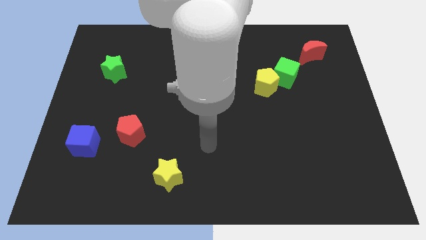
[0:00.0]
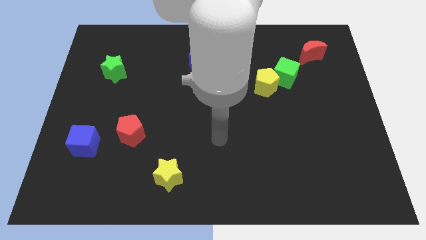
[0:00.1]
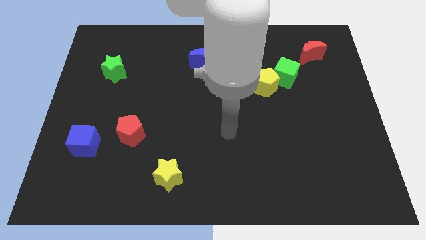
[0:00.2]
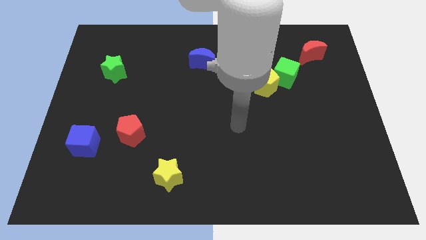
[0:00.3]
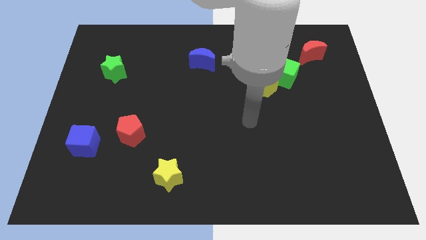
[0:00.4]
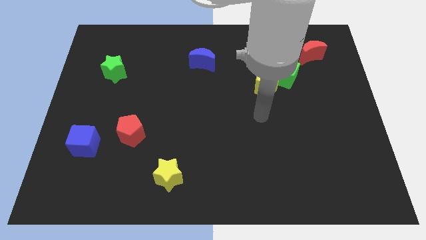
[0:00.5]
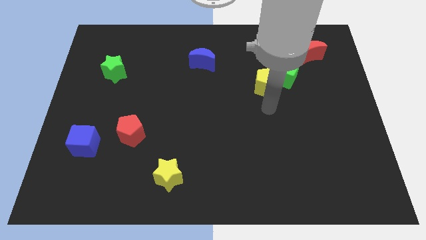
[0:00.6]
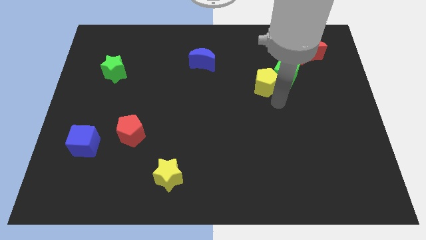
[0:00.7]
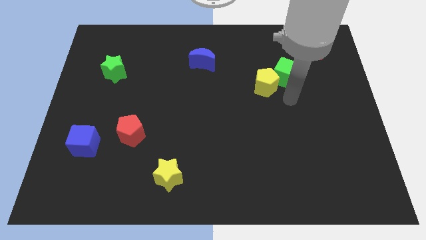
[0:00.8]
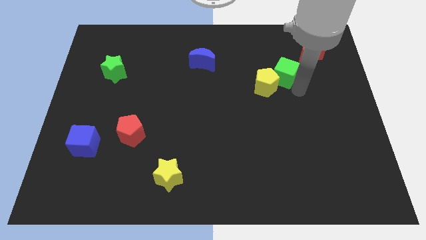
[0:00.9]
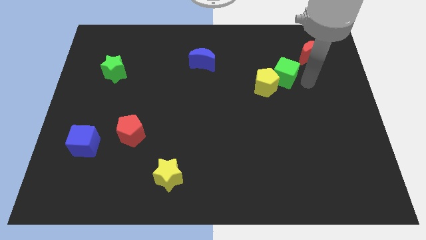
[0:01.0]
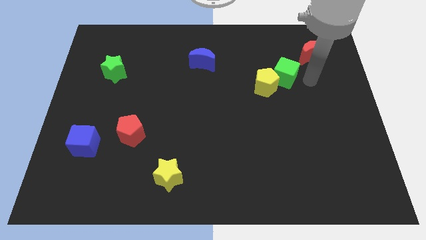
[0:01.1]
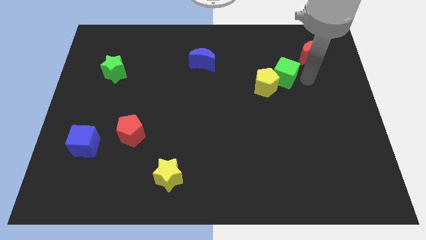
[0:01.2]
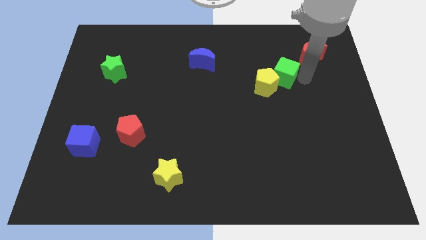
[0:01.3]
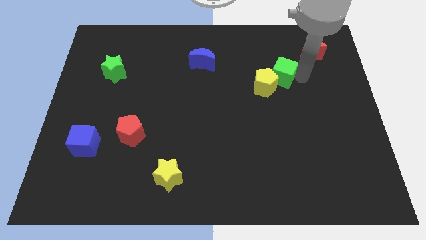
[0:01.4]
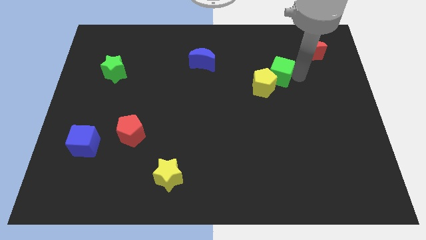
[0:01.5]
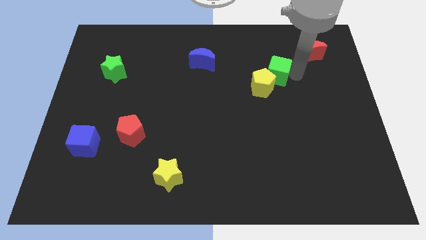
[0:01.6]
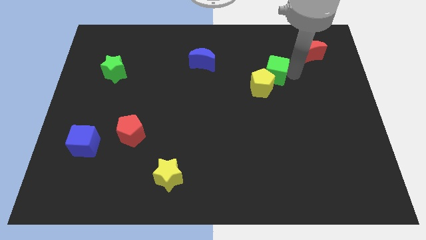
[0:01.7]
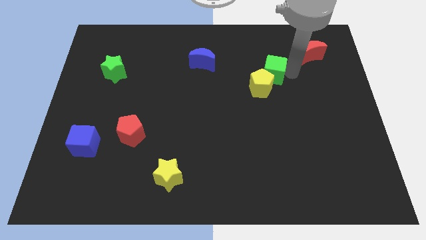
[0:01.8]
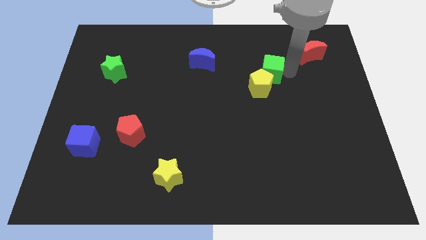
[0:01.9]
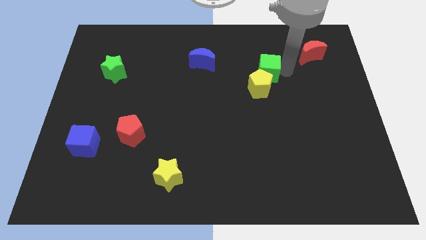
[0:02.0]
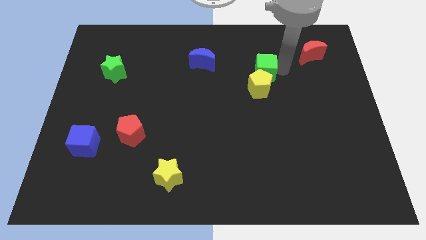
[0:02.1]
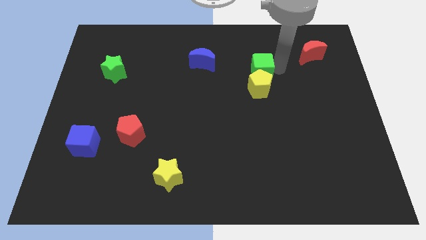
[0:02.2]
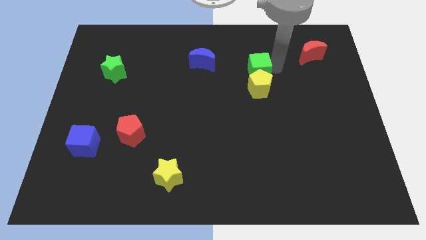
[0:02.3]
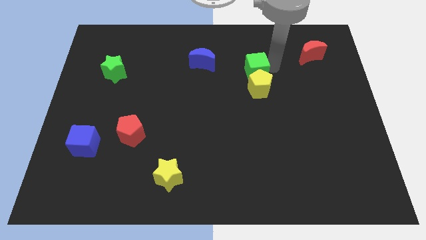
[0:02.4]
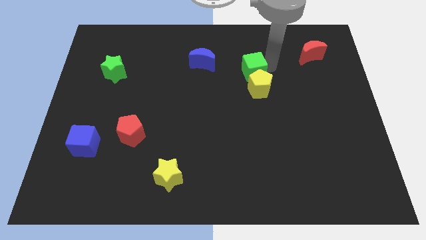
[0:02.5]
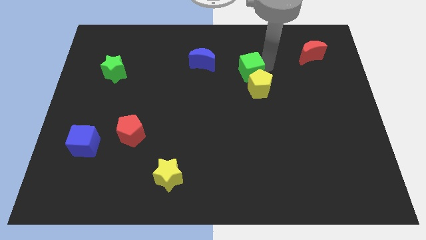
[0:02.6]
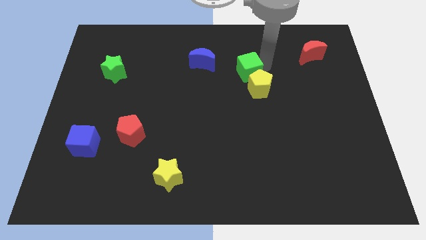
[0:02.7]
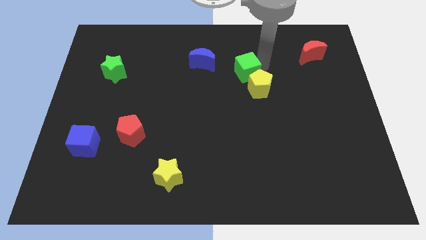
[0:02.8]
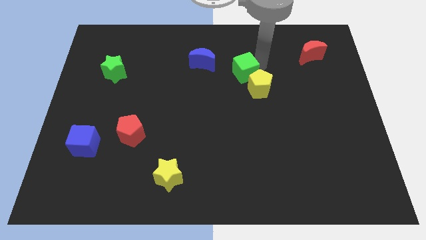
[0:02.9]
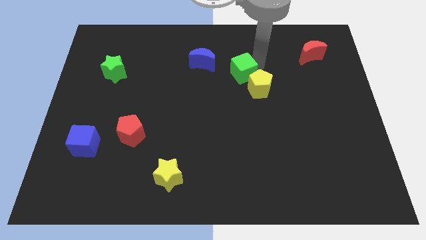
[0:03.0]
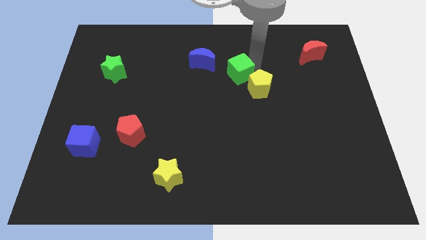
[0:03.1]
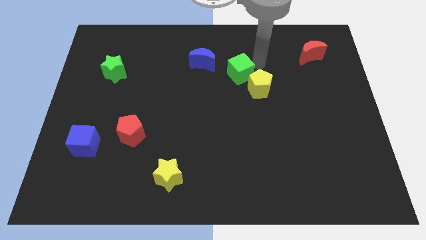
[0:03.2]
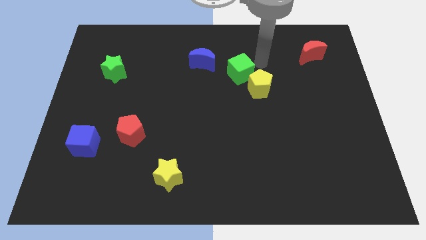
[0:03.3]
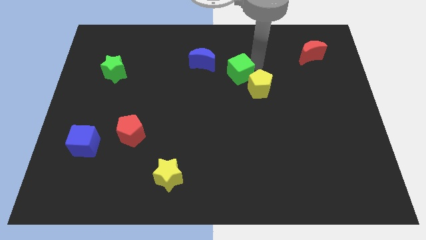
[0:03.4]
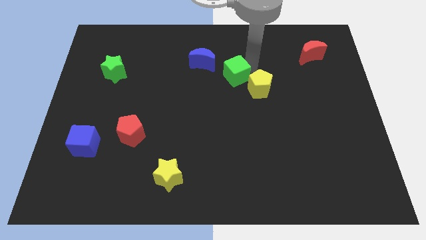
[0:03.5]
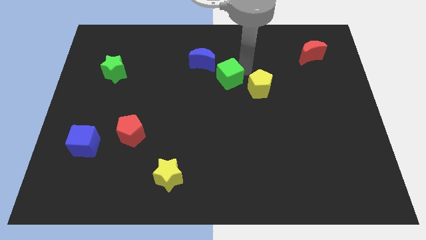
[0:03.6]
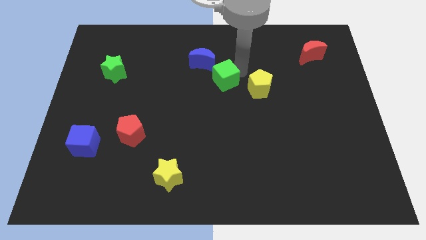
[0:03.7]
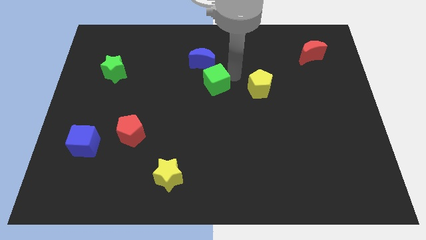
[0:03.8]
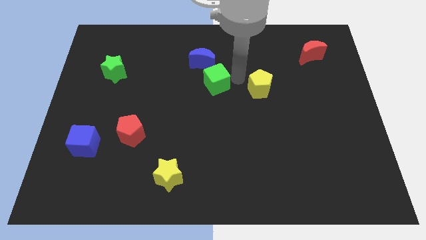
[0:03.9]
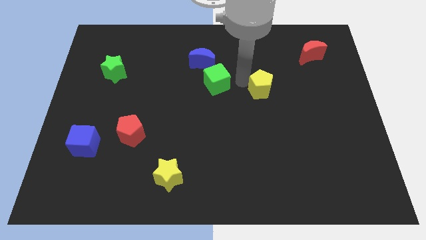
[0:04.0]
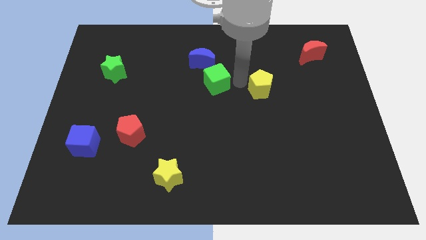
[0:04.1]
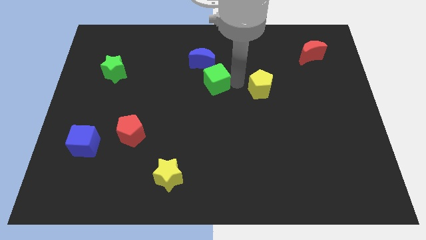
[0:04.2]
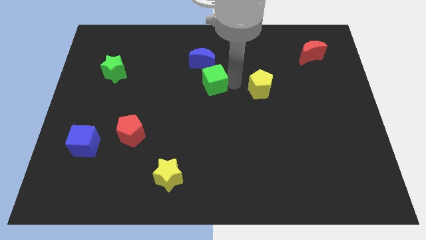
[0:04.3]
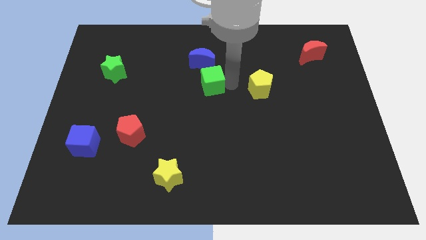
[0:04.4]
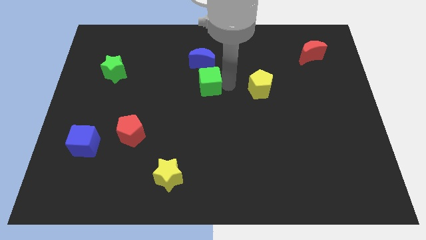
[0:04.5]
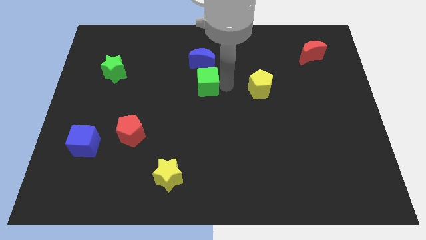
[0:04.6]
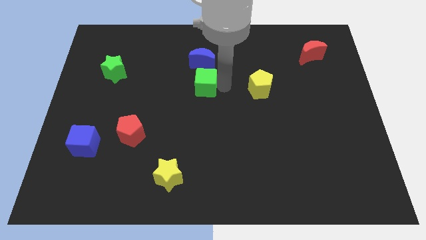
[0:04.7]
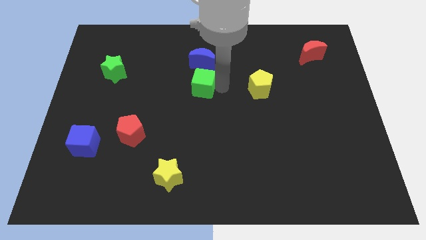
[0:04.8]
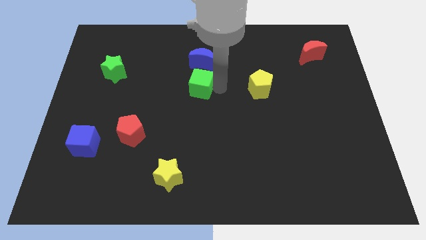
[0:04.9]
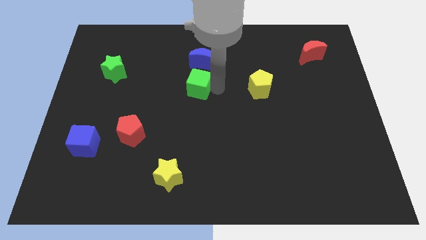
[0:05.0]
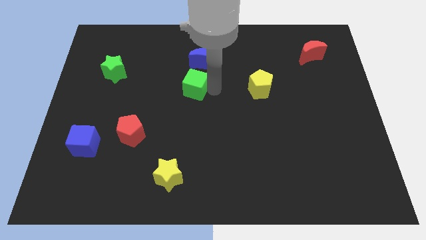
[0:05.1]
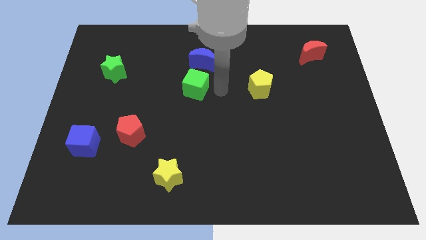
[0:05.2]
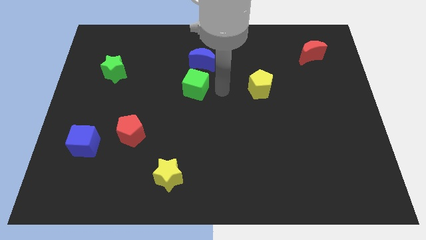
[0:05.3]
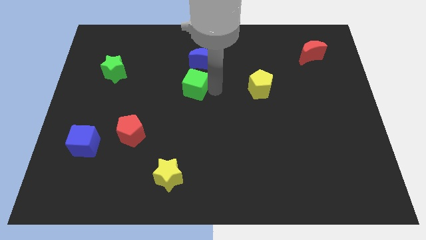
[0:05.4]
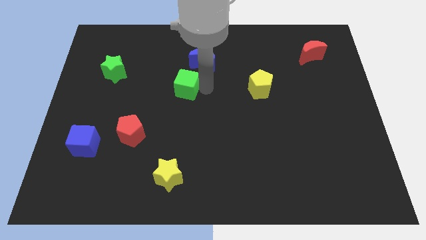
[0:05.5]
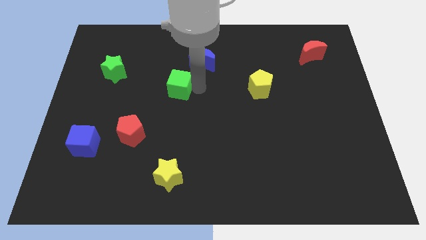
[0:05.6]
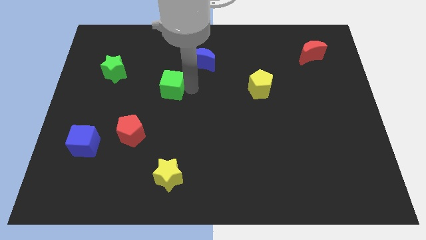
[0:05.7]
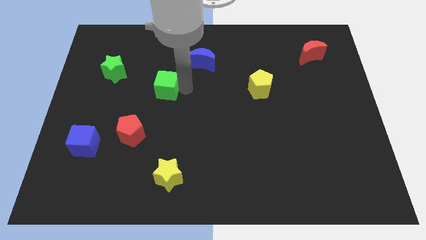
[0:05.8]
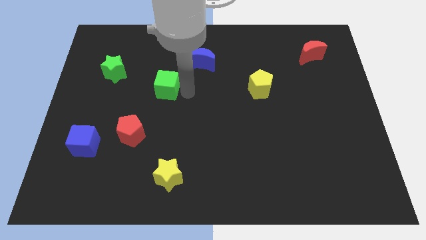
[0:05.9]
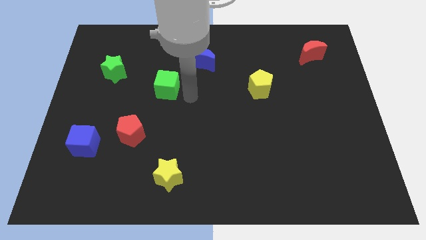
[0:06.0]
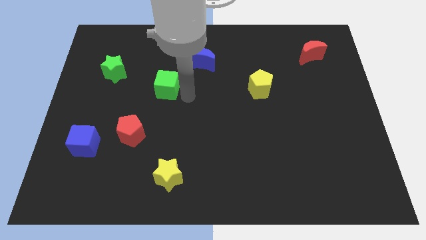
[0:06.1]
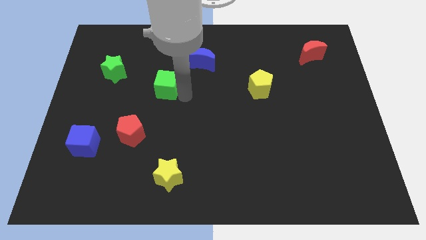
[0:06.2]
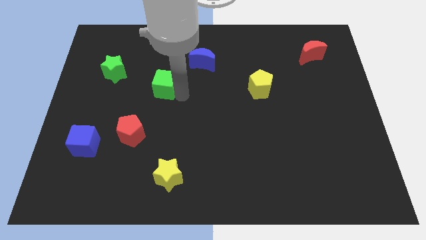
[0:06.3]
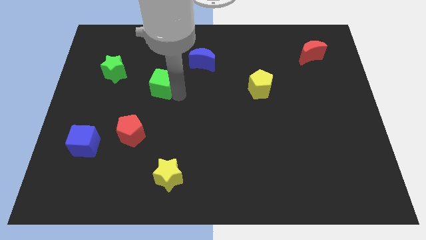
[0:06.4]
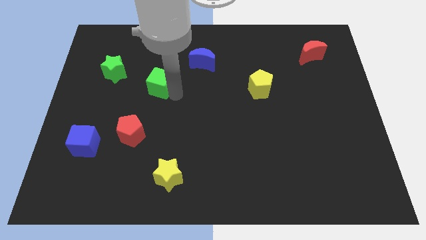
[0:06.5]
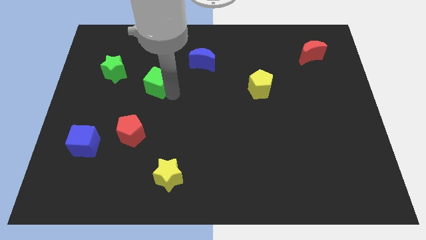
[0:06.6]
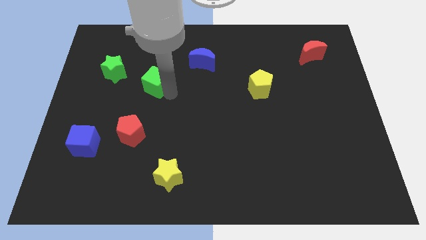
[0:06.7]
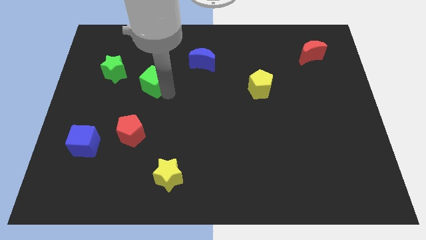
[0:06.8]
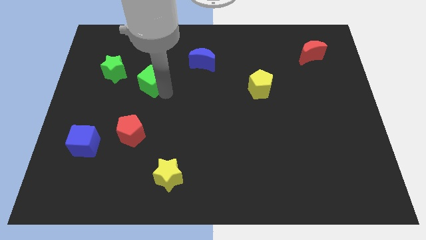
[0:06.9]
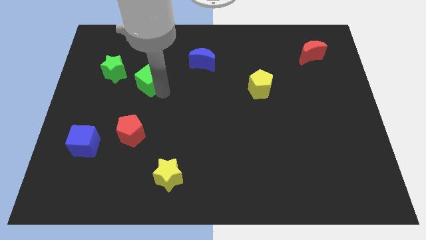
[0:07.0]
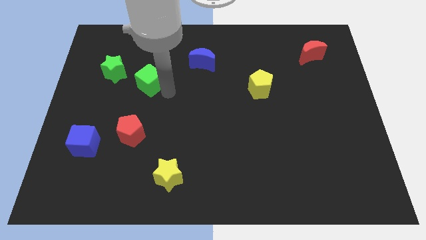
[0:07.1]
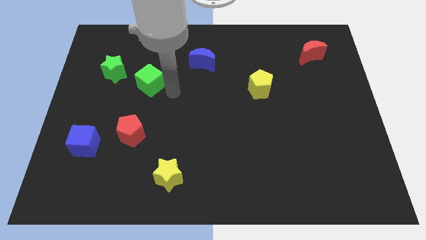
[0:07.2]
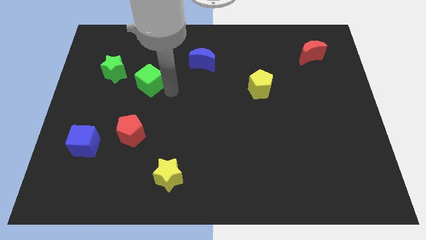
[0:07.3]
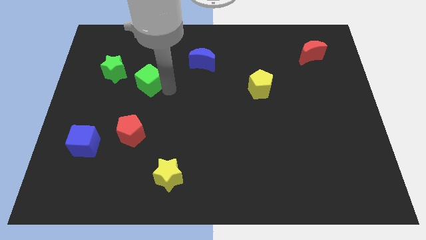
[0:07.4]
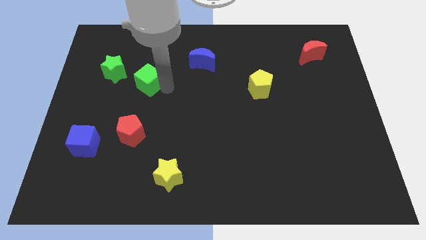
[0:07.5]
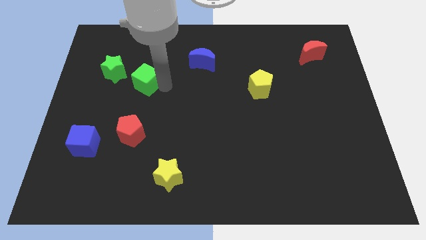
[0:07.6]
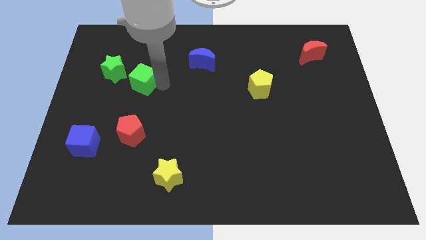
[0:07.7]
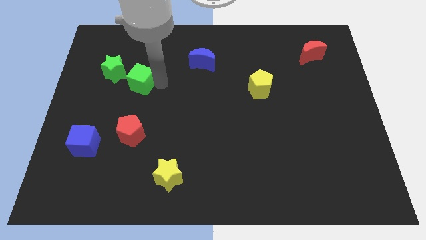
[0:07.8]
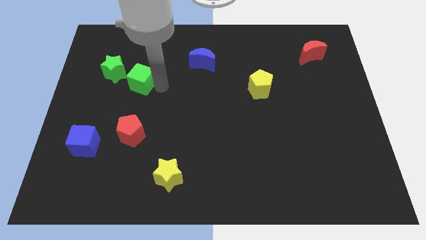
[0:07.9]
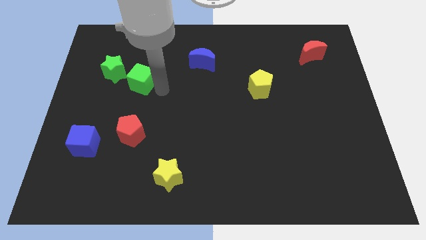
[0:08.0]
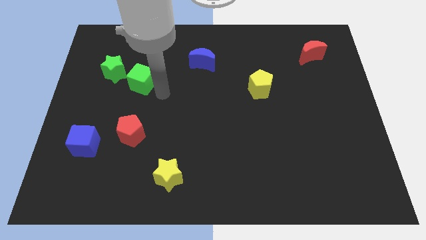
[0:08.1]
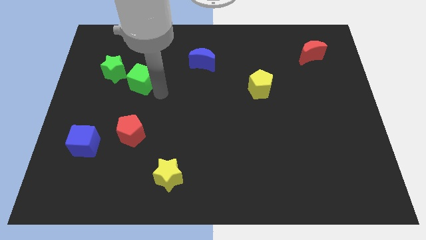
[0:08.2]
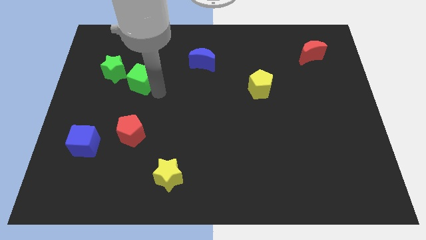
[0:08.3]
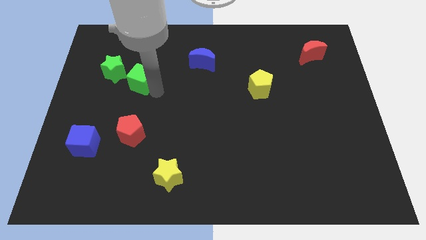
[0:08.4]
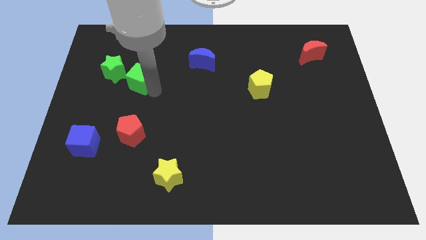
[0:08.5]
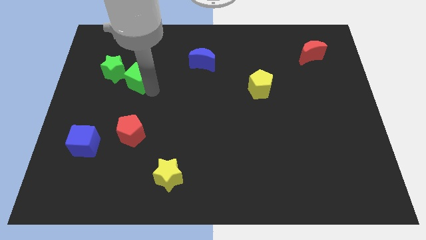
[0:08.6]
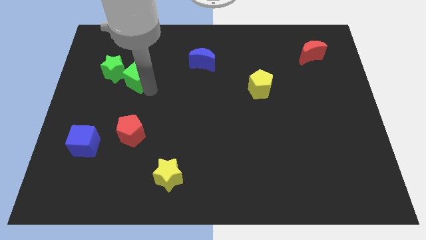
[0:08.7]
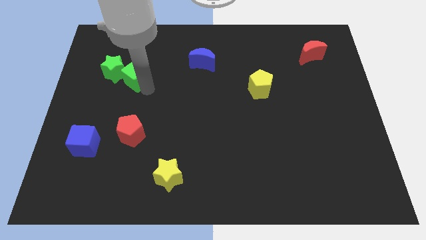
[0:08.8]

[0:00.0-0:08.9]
move the green cube next to the green star
